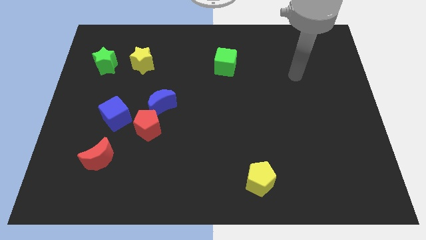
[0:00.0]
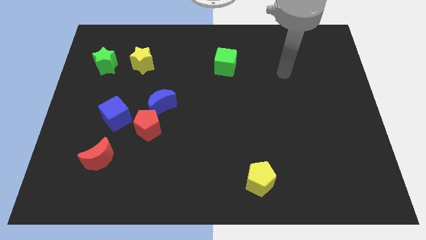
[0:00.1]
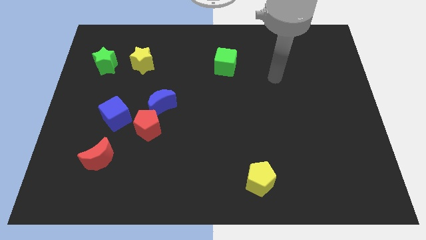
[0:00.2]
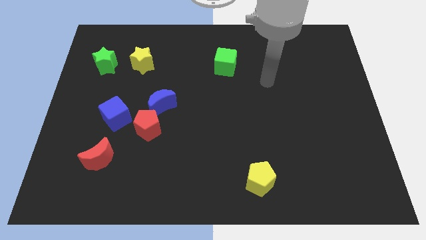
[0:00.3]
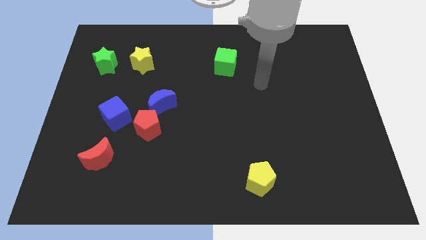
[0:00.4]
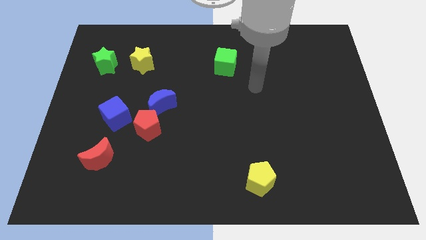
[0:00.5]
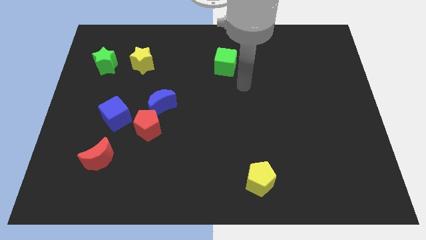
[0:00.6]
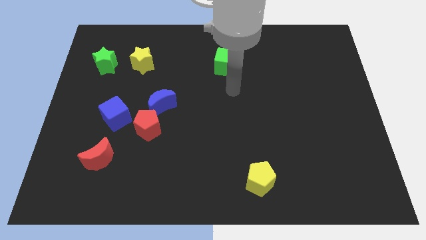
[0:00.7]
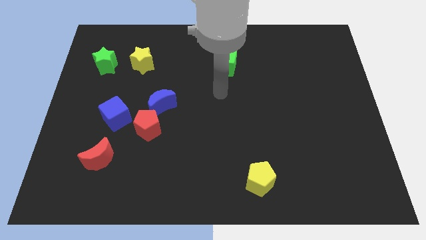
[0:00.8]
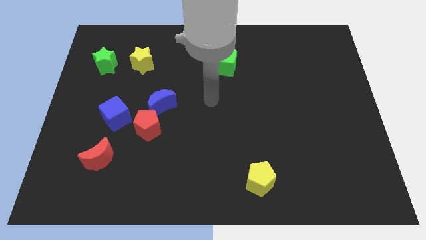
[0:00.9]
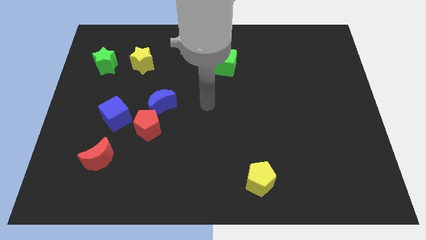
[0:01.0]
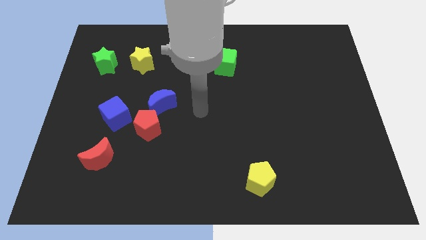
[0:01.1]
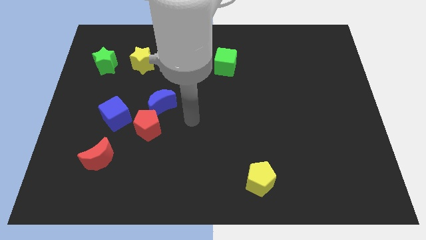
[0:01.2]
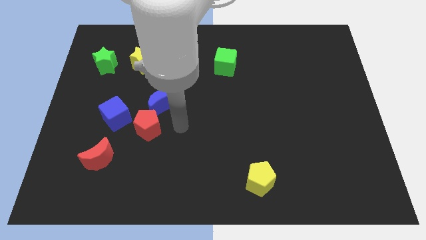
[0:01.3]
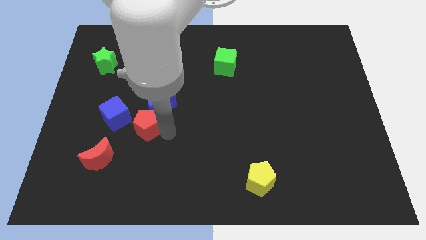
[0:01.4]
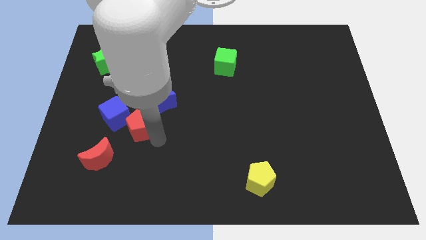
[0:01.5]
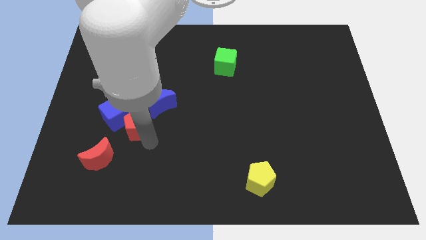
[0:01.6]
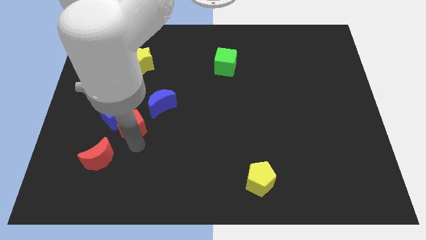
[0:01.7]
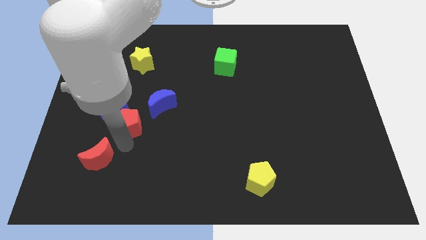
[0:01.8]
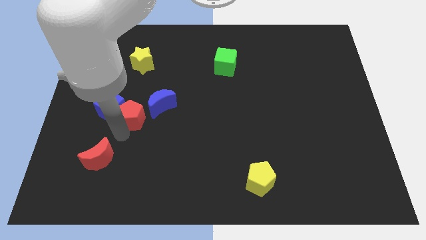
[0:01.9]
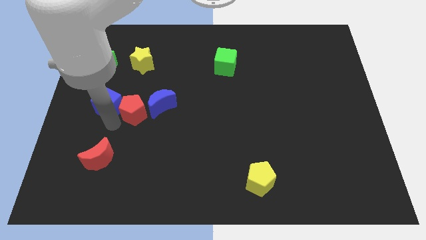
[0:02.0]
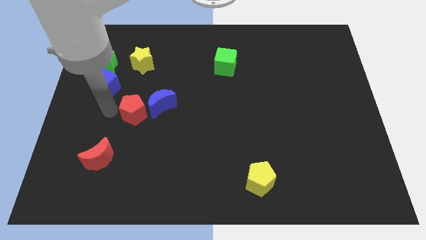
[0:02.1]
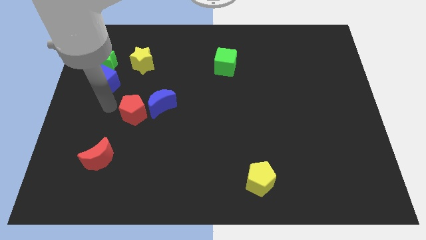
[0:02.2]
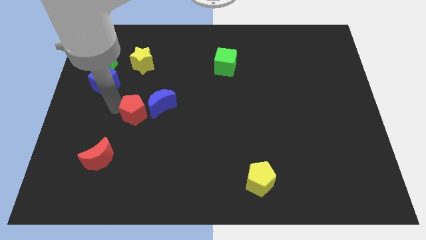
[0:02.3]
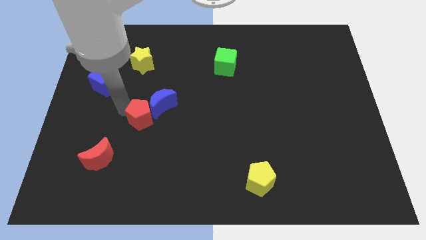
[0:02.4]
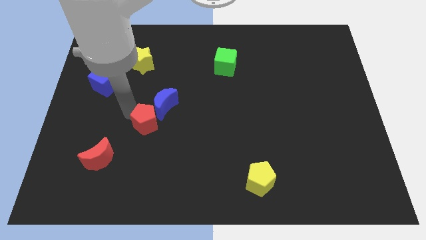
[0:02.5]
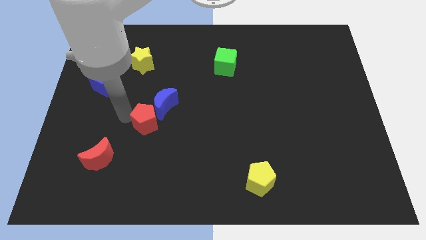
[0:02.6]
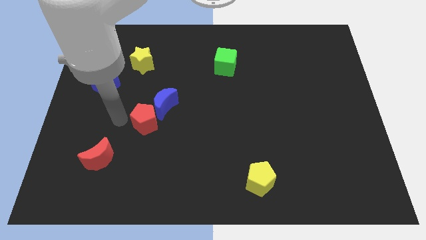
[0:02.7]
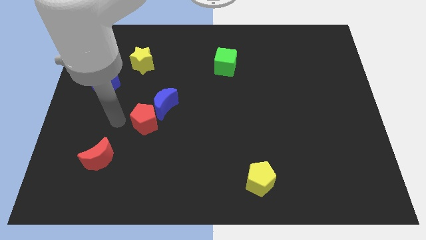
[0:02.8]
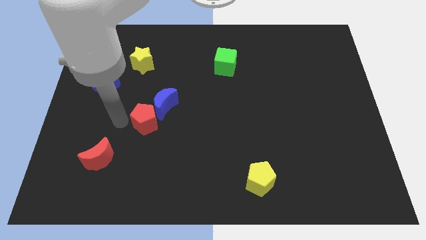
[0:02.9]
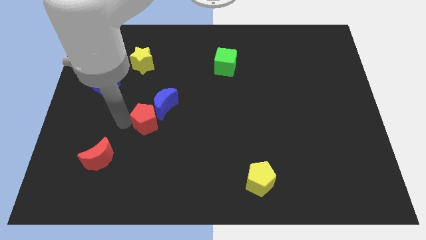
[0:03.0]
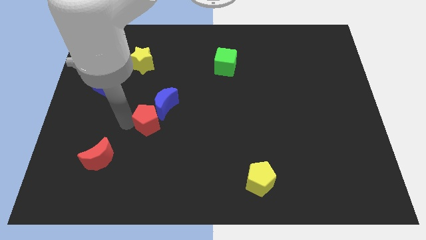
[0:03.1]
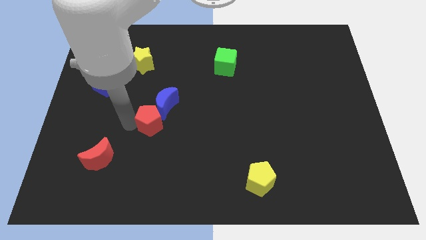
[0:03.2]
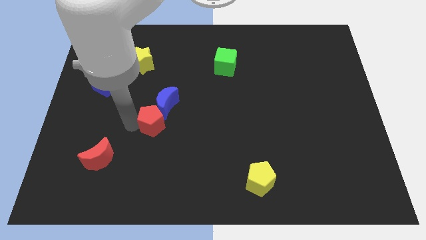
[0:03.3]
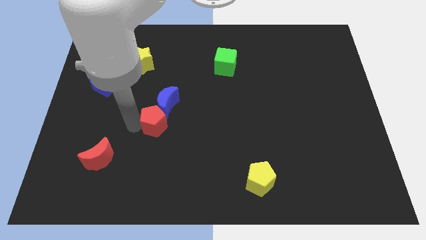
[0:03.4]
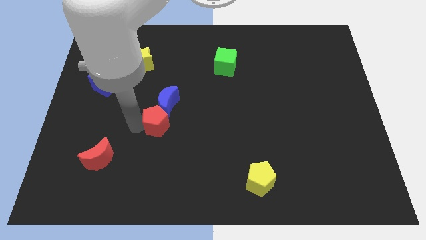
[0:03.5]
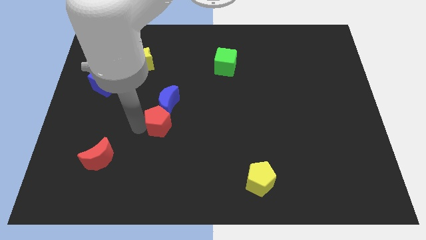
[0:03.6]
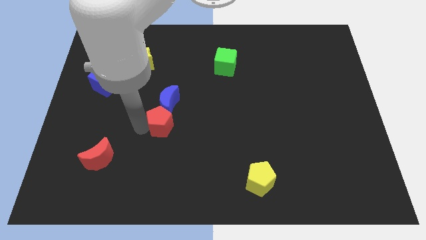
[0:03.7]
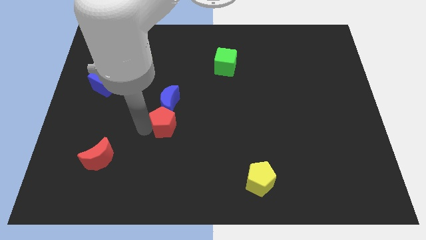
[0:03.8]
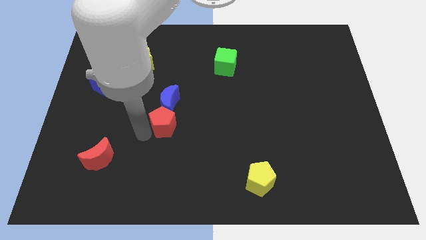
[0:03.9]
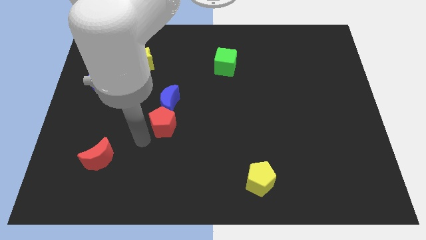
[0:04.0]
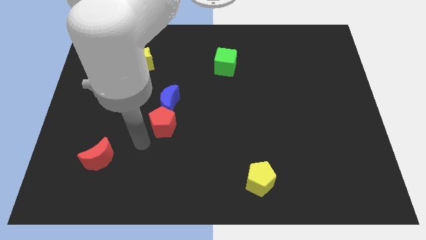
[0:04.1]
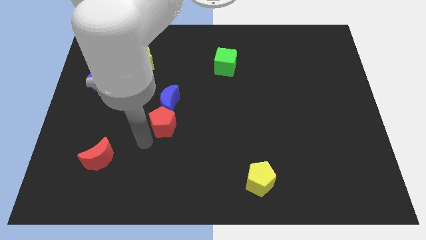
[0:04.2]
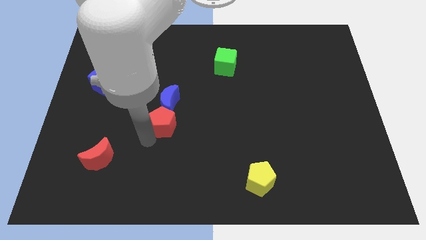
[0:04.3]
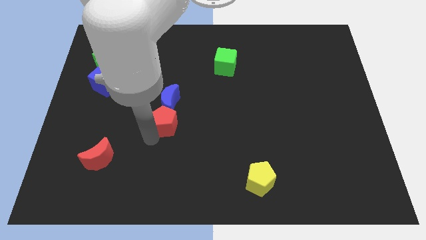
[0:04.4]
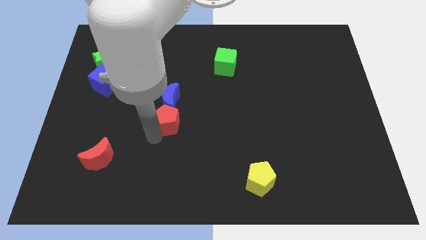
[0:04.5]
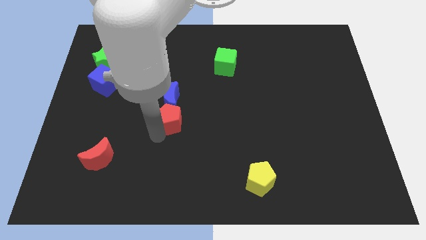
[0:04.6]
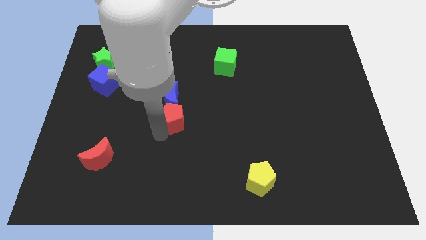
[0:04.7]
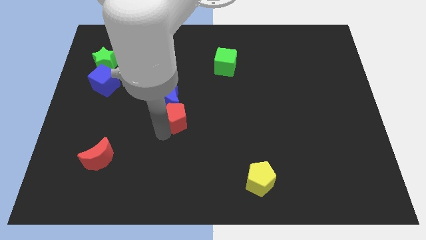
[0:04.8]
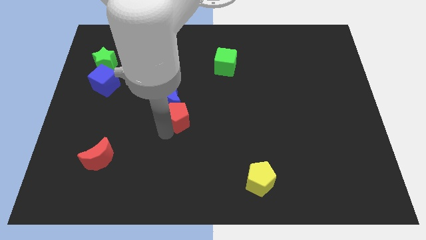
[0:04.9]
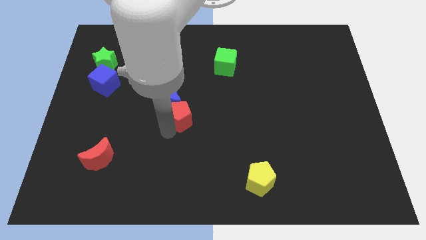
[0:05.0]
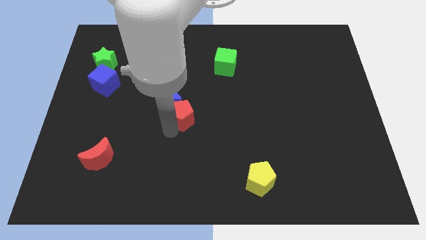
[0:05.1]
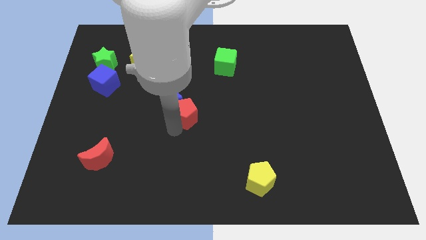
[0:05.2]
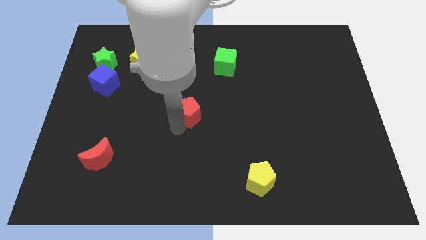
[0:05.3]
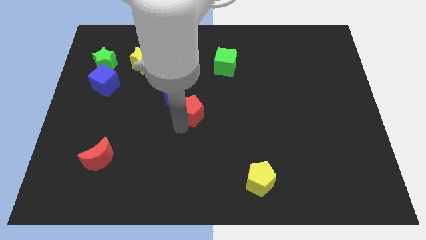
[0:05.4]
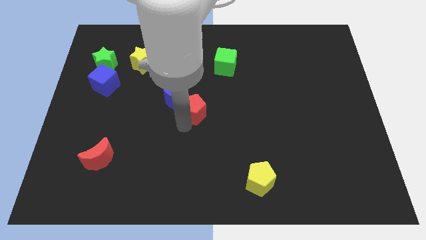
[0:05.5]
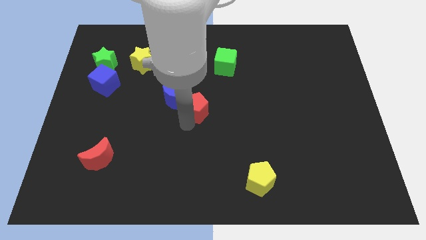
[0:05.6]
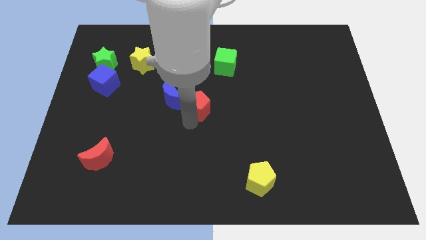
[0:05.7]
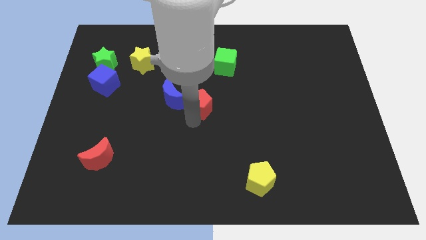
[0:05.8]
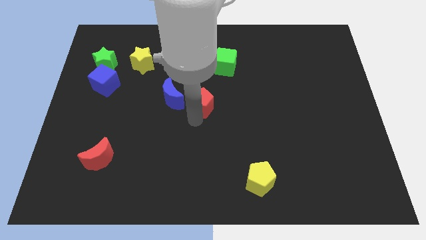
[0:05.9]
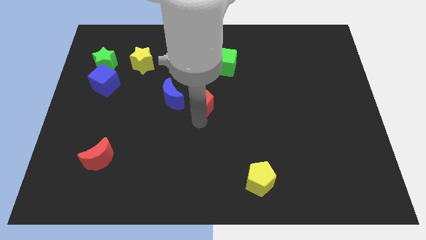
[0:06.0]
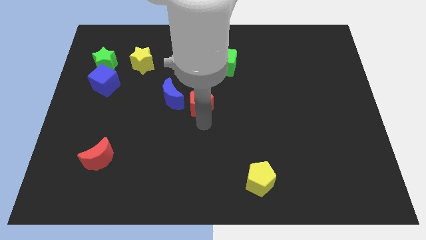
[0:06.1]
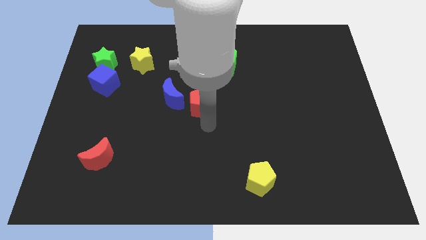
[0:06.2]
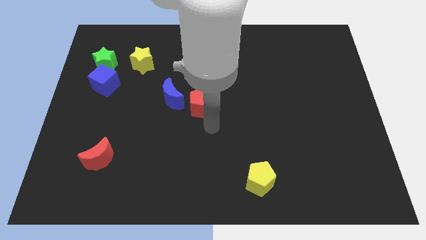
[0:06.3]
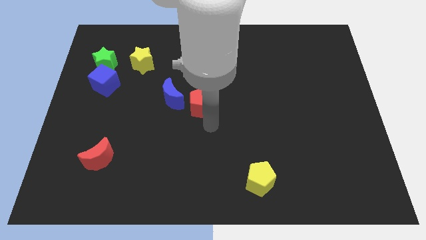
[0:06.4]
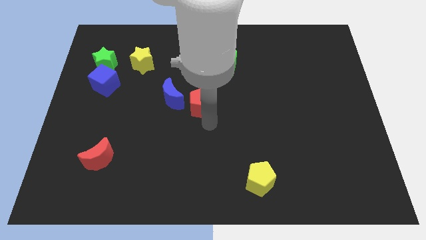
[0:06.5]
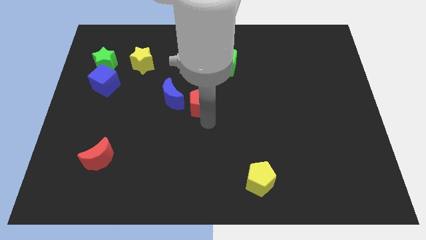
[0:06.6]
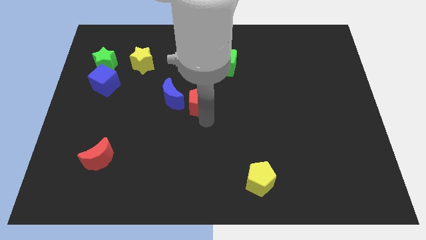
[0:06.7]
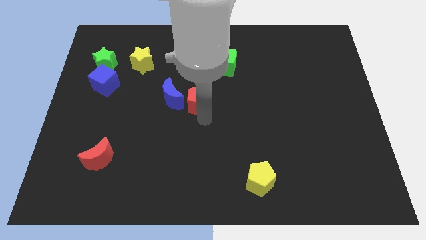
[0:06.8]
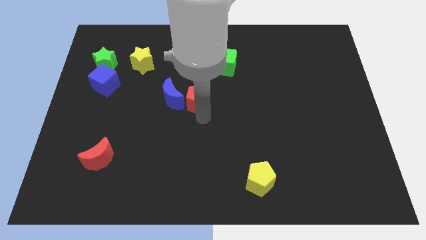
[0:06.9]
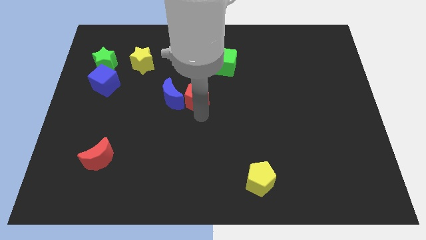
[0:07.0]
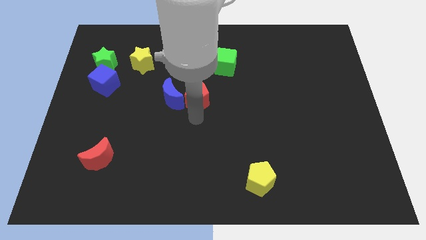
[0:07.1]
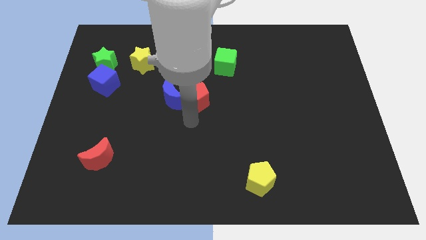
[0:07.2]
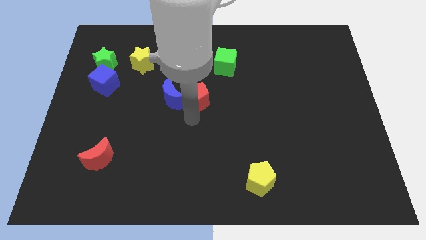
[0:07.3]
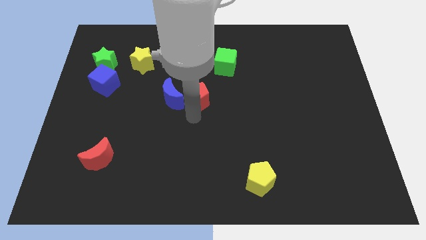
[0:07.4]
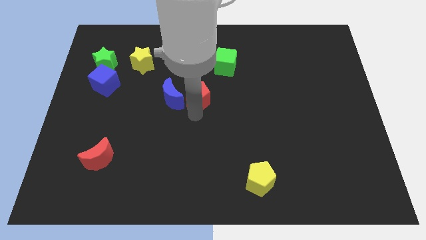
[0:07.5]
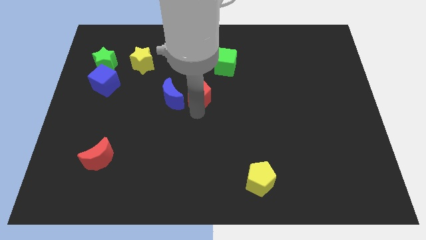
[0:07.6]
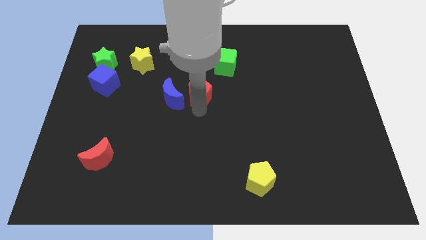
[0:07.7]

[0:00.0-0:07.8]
move the red pentagon diagonally down and to the left of the green cube
